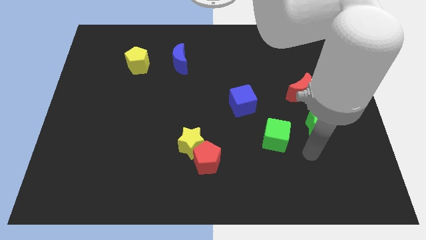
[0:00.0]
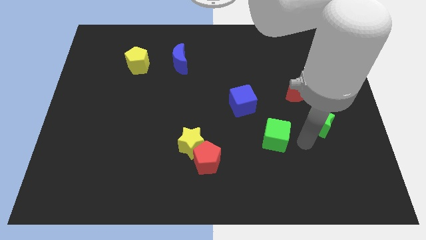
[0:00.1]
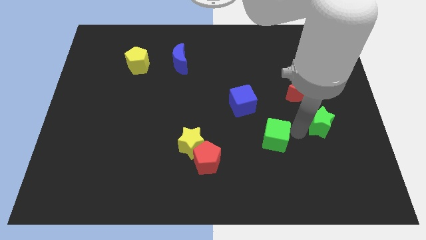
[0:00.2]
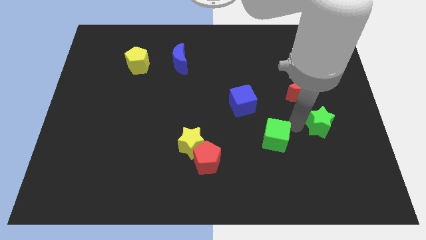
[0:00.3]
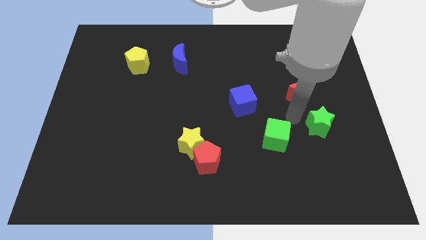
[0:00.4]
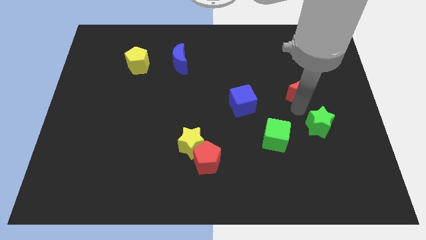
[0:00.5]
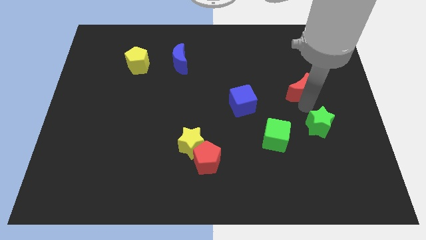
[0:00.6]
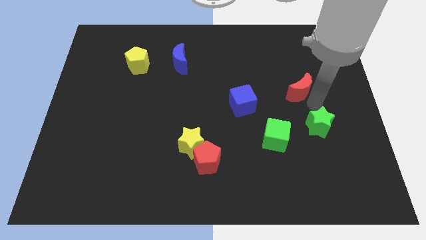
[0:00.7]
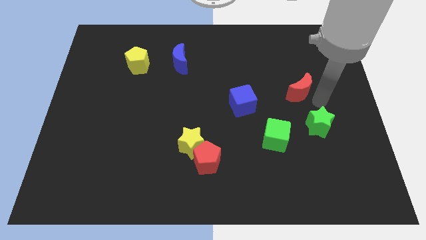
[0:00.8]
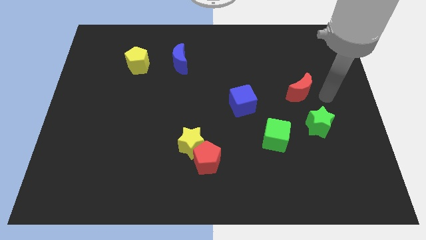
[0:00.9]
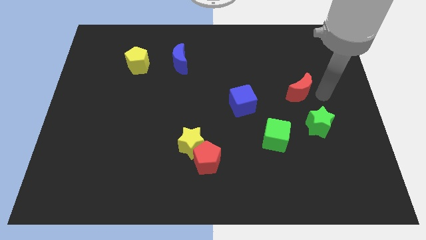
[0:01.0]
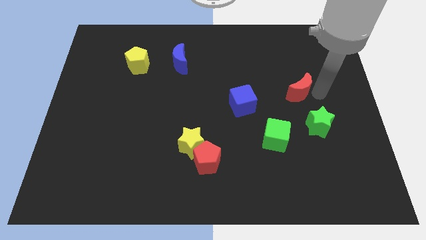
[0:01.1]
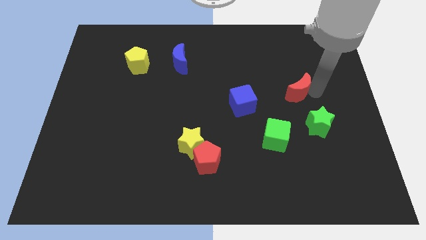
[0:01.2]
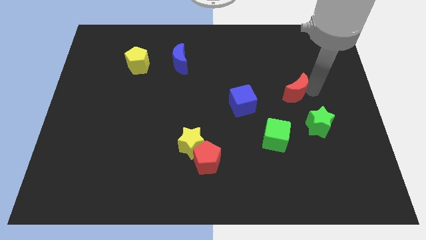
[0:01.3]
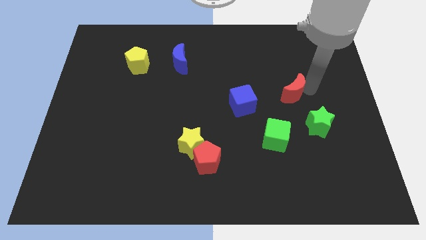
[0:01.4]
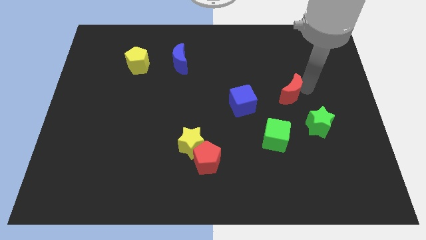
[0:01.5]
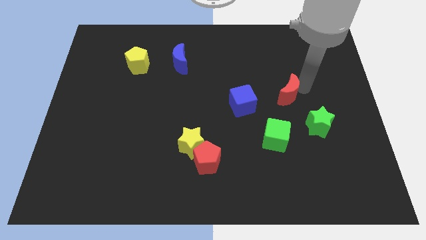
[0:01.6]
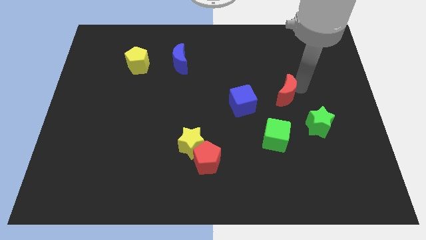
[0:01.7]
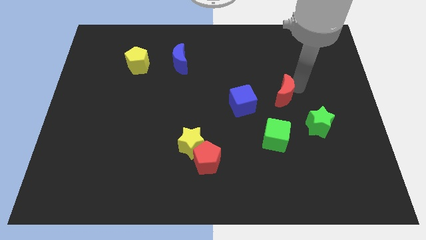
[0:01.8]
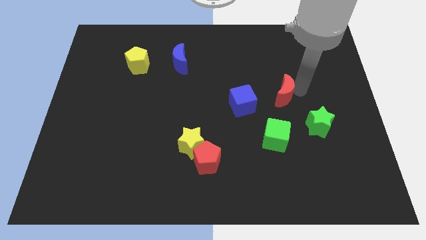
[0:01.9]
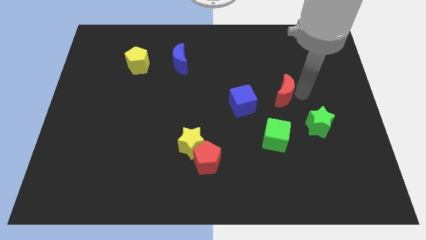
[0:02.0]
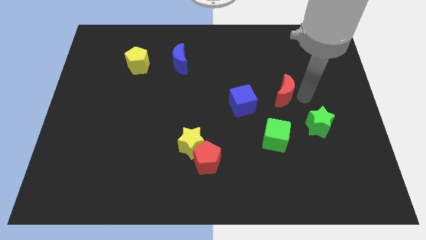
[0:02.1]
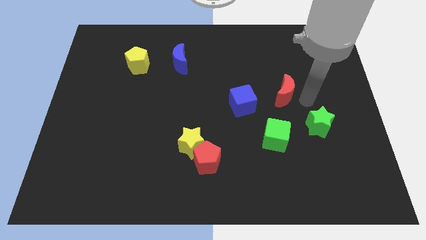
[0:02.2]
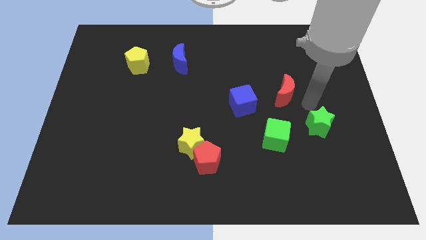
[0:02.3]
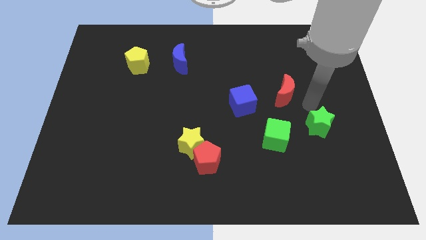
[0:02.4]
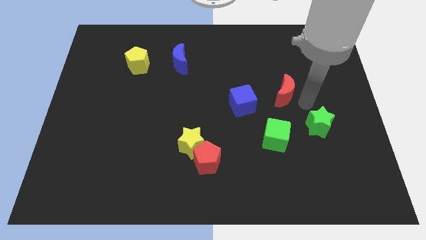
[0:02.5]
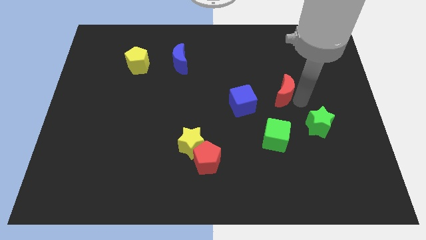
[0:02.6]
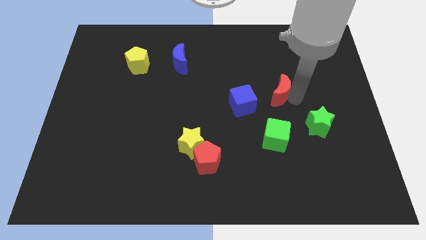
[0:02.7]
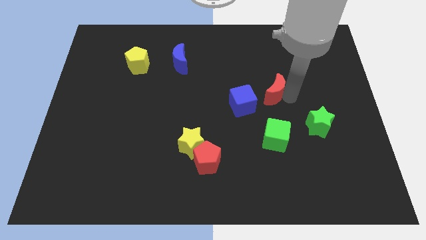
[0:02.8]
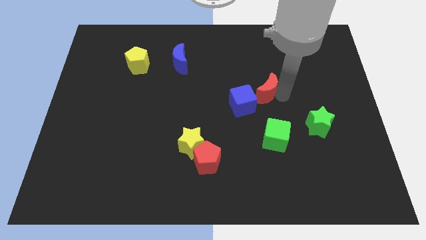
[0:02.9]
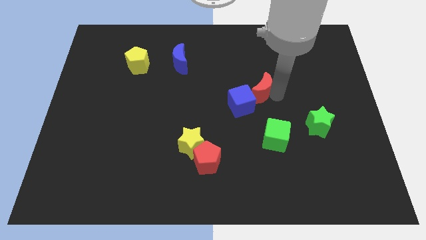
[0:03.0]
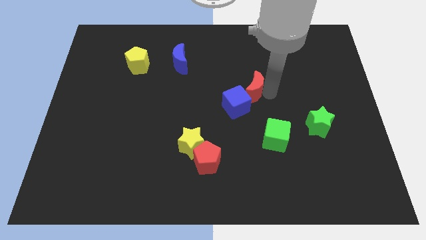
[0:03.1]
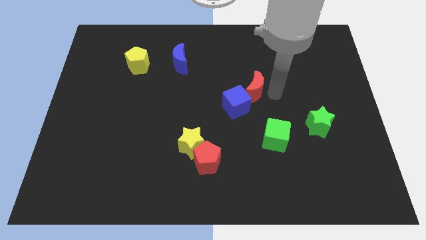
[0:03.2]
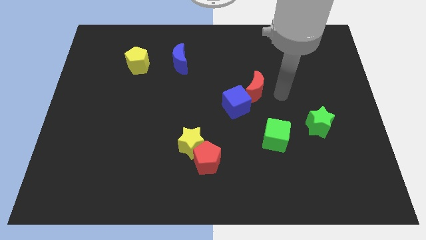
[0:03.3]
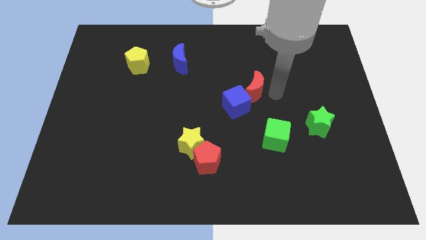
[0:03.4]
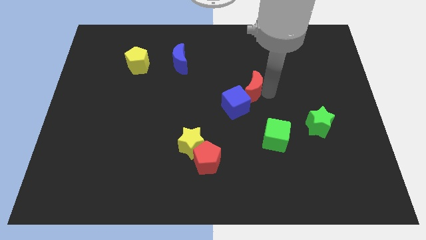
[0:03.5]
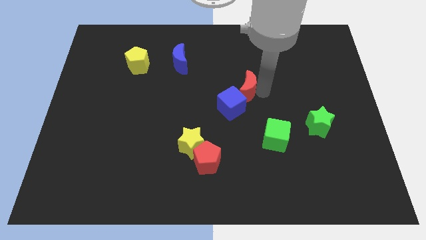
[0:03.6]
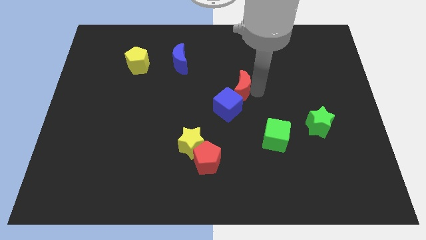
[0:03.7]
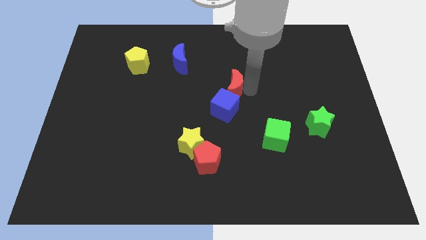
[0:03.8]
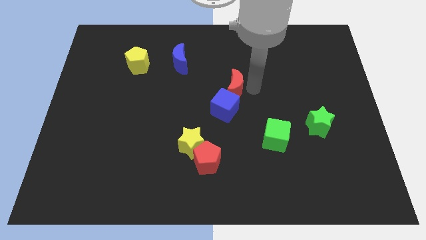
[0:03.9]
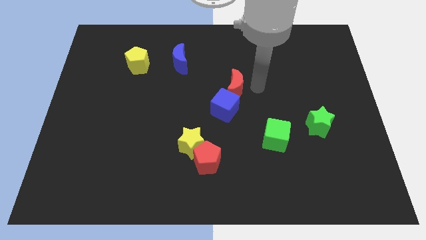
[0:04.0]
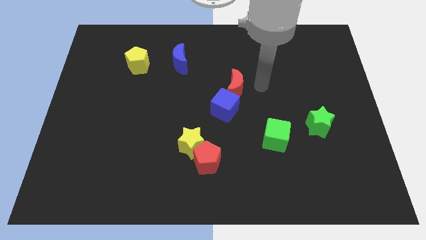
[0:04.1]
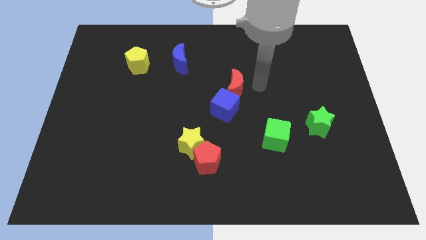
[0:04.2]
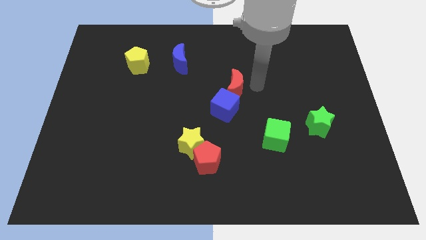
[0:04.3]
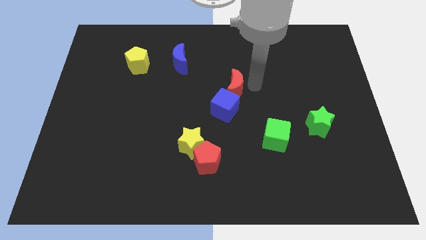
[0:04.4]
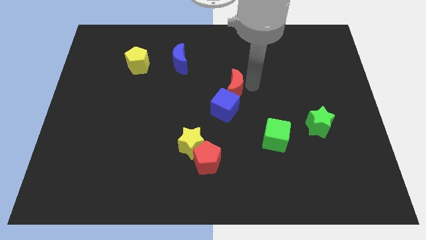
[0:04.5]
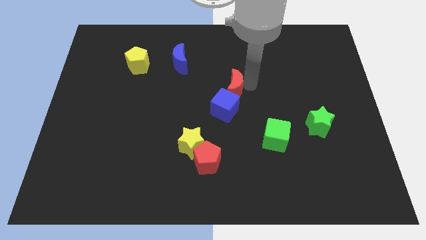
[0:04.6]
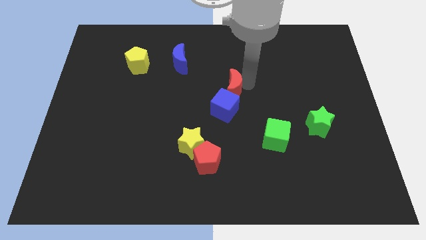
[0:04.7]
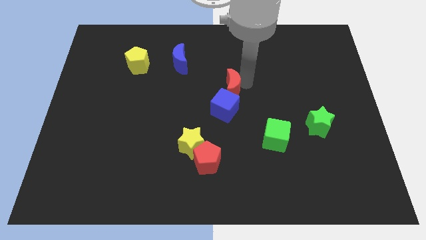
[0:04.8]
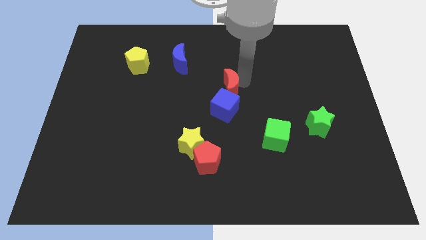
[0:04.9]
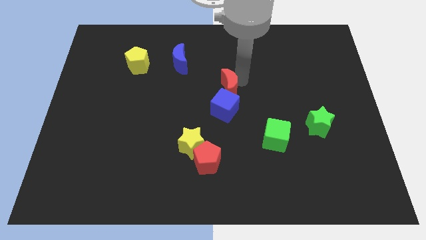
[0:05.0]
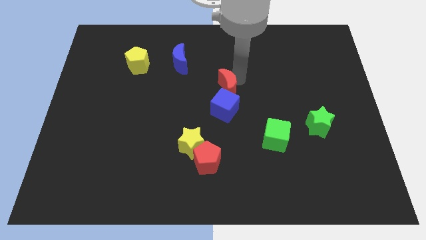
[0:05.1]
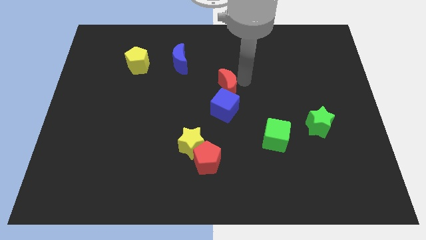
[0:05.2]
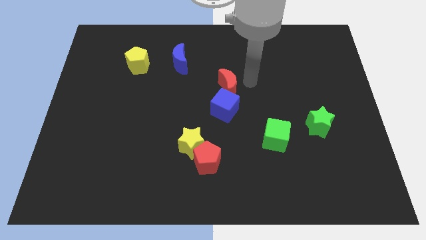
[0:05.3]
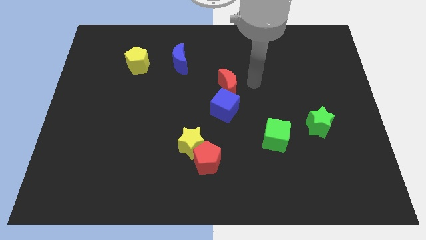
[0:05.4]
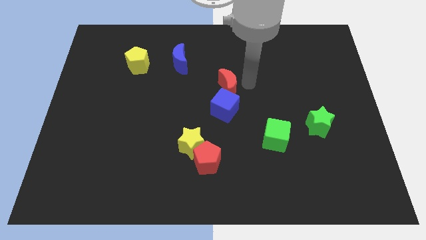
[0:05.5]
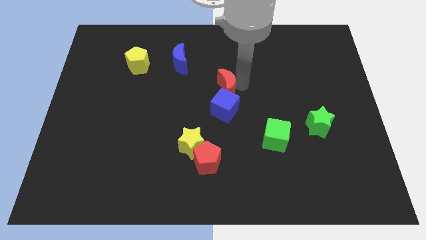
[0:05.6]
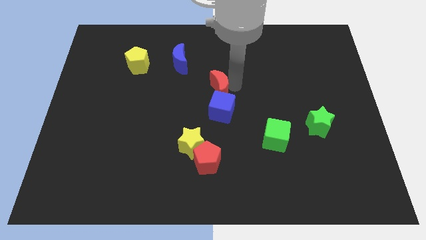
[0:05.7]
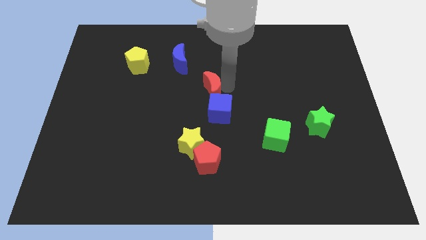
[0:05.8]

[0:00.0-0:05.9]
push the red moon to the left

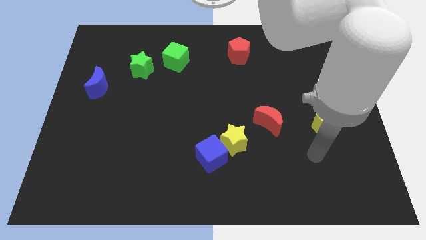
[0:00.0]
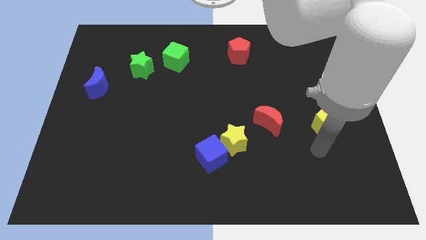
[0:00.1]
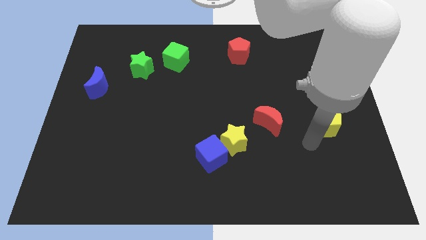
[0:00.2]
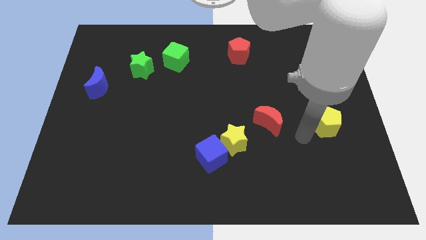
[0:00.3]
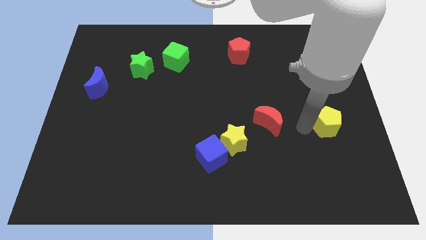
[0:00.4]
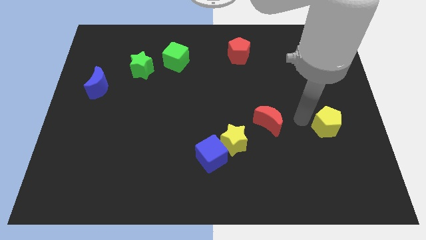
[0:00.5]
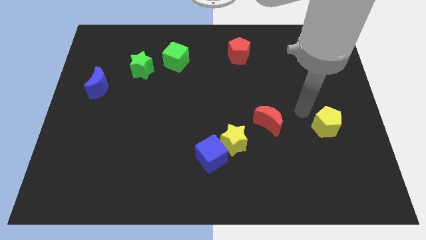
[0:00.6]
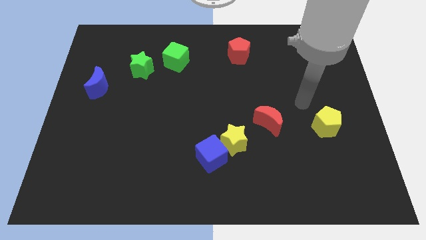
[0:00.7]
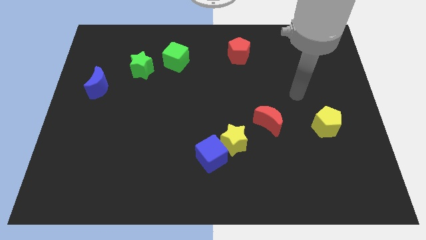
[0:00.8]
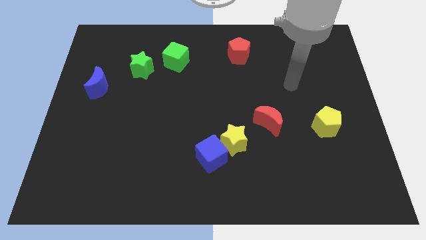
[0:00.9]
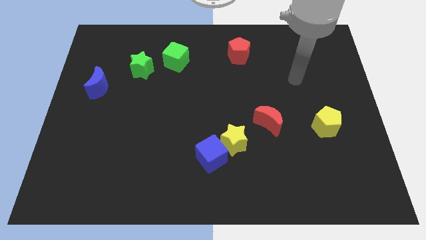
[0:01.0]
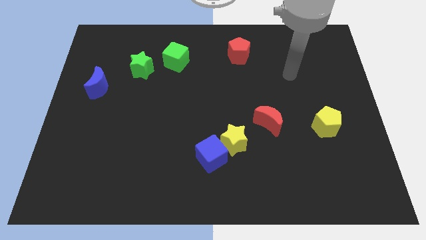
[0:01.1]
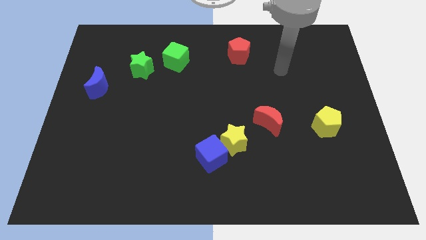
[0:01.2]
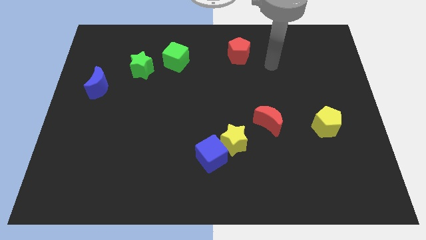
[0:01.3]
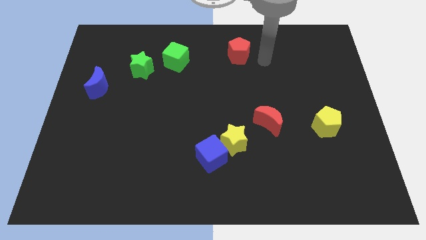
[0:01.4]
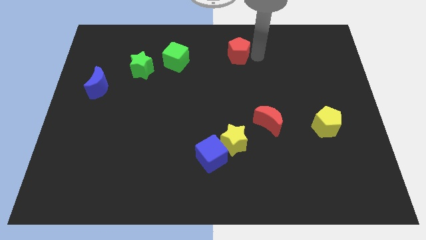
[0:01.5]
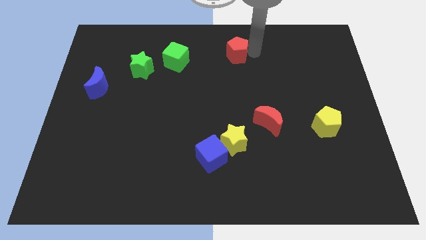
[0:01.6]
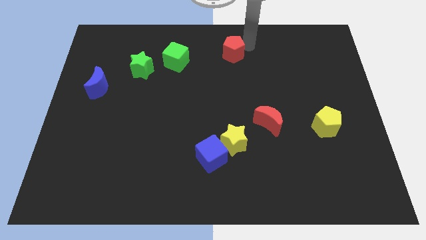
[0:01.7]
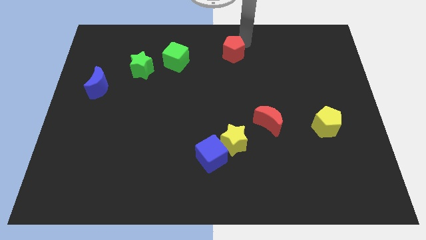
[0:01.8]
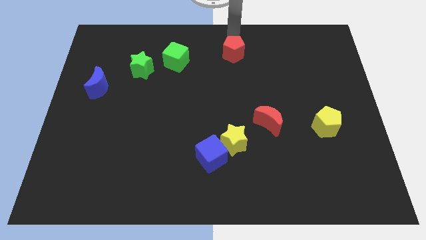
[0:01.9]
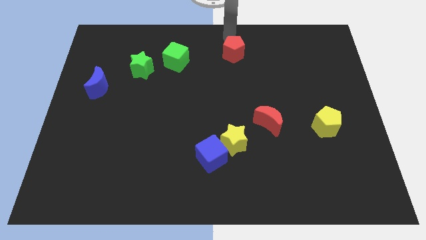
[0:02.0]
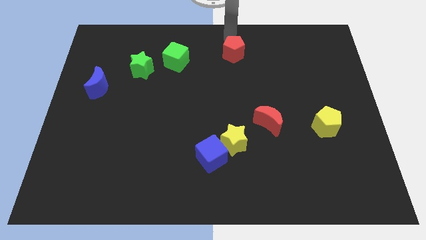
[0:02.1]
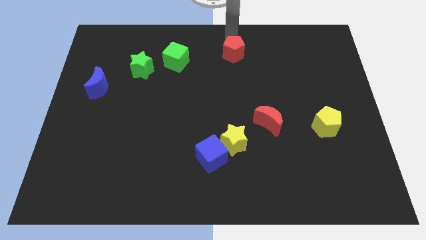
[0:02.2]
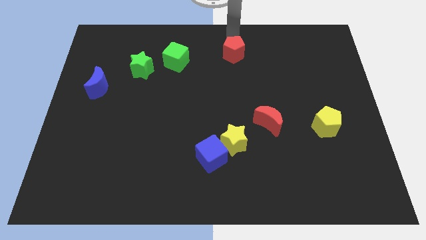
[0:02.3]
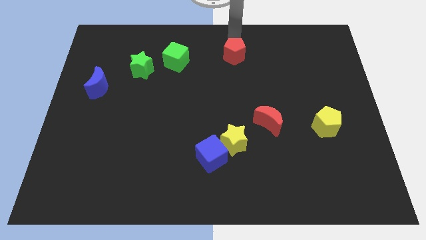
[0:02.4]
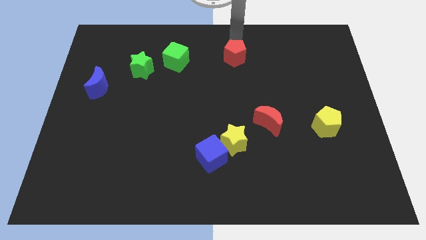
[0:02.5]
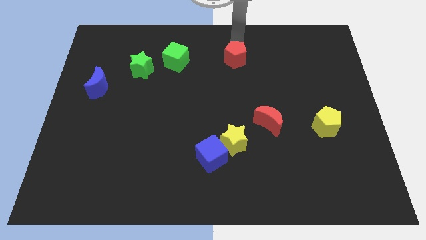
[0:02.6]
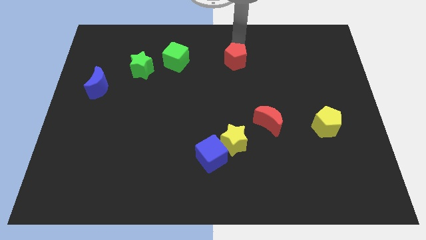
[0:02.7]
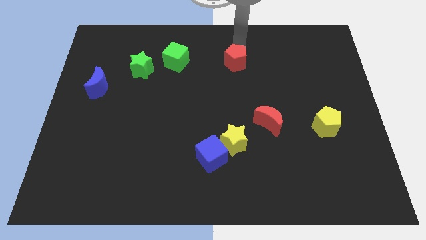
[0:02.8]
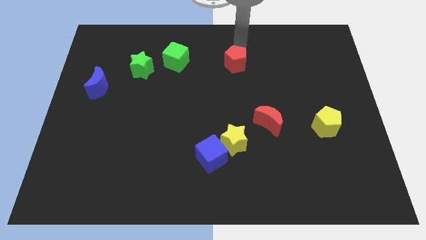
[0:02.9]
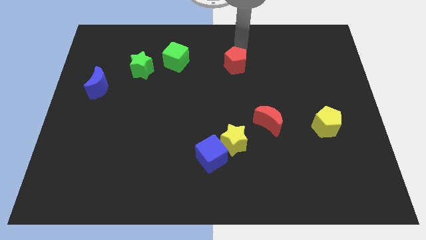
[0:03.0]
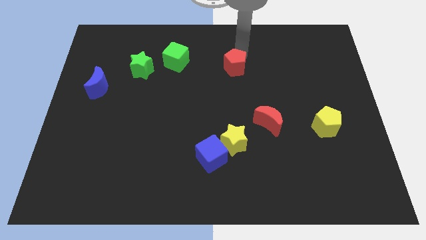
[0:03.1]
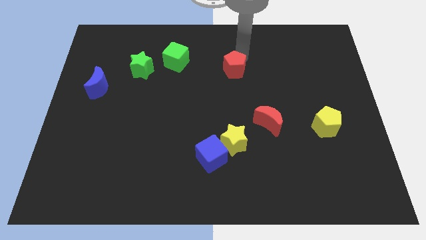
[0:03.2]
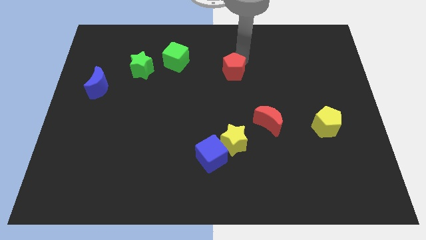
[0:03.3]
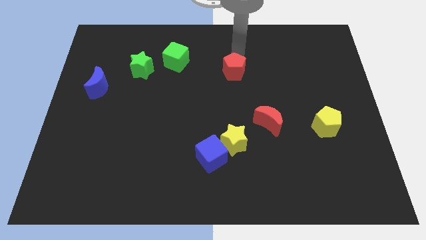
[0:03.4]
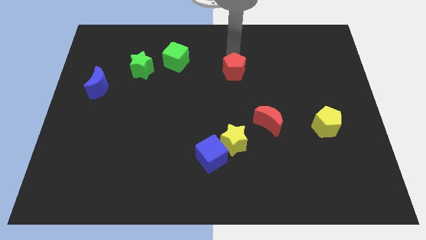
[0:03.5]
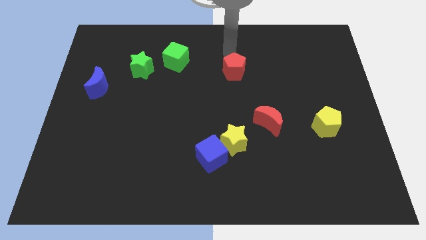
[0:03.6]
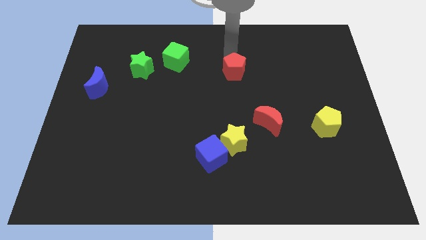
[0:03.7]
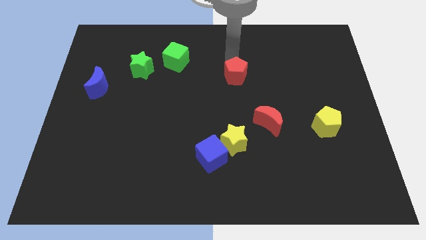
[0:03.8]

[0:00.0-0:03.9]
slide the red pentagon a little downwards
